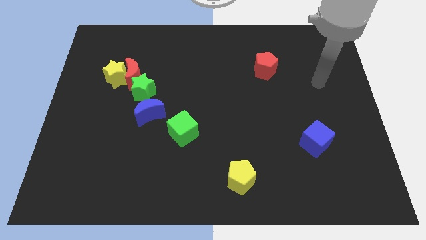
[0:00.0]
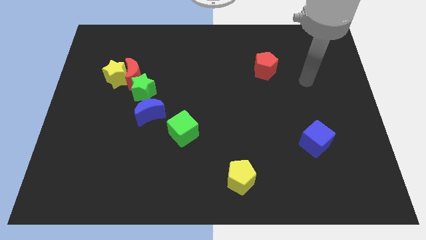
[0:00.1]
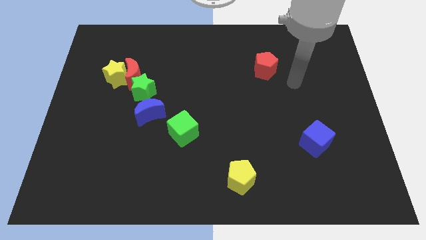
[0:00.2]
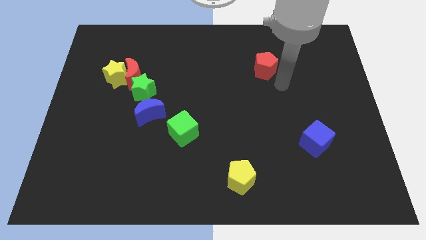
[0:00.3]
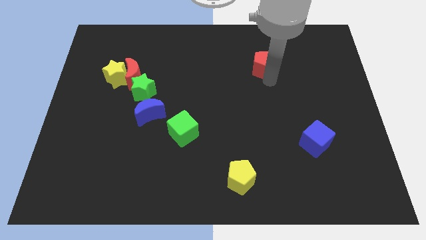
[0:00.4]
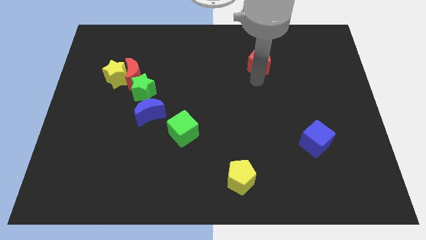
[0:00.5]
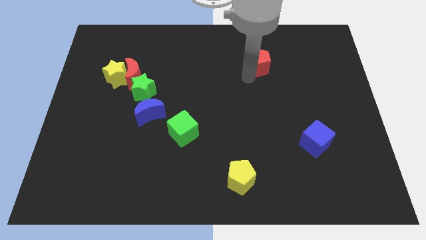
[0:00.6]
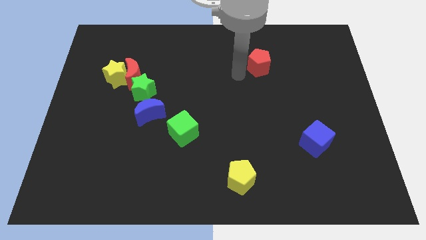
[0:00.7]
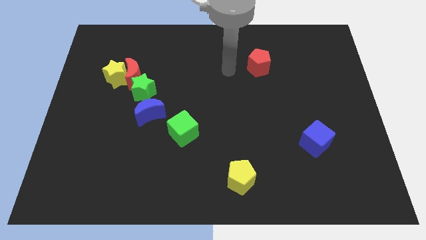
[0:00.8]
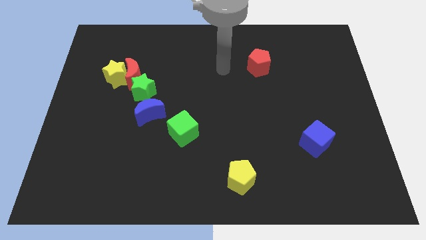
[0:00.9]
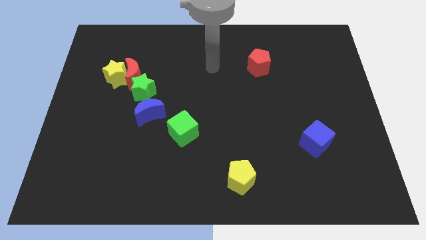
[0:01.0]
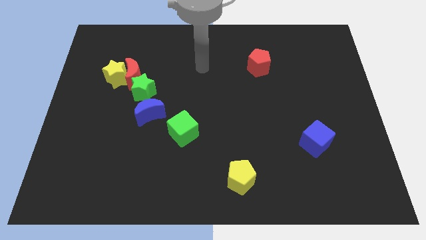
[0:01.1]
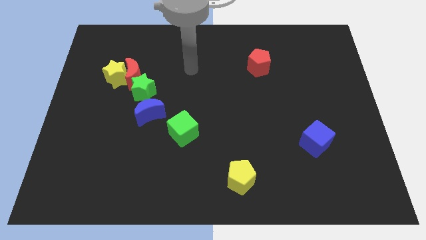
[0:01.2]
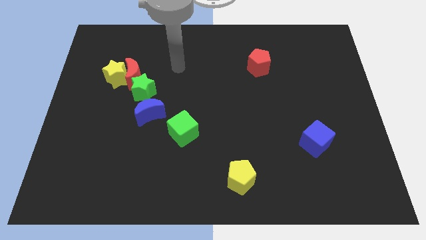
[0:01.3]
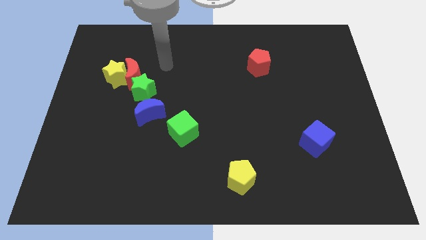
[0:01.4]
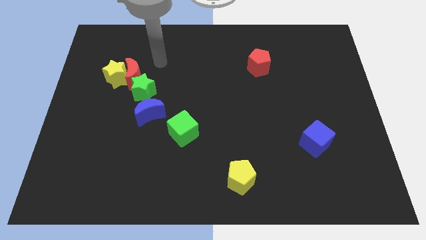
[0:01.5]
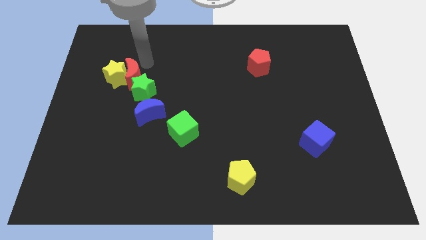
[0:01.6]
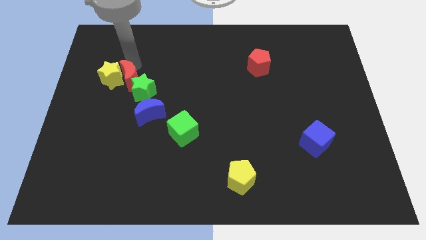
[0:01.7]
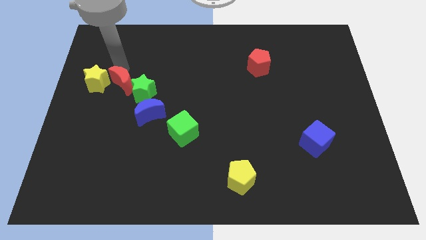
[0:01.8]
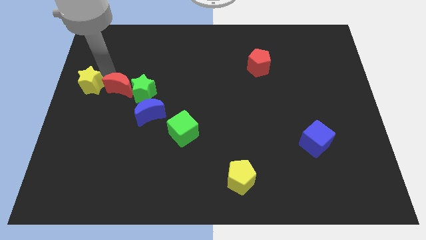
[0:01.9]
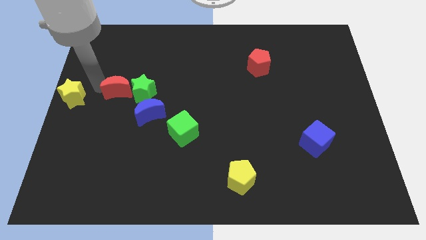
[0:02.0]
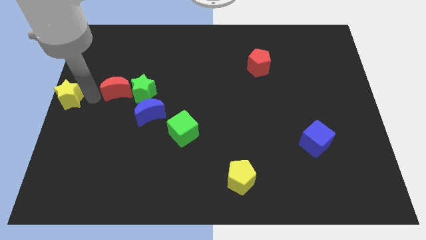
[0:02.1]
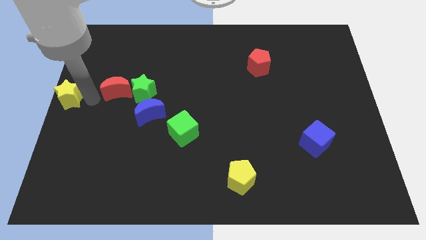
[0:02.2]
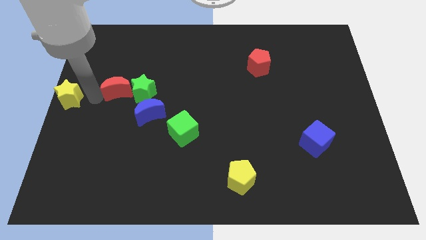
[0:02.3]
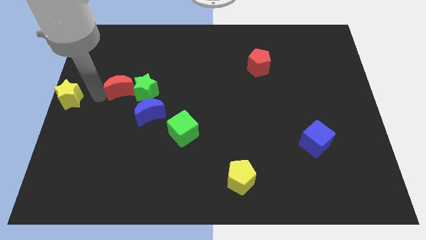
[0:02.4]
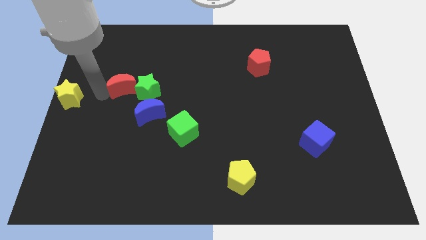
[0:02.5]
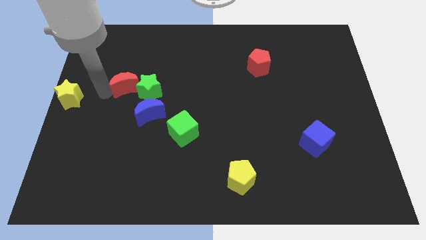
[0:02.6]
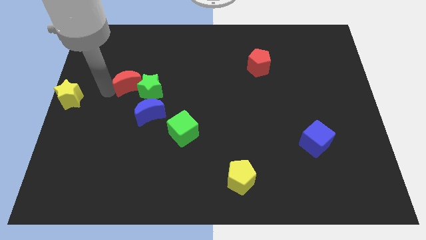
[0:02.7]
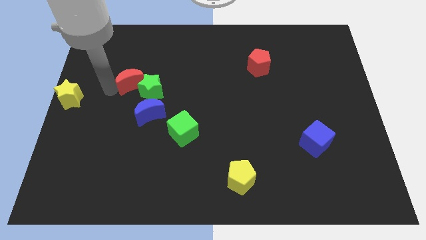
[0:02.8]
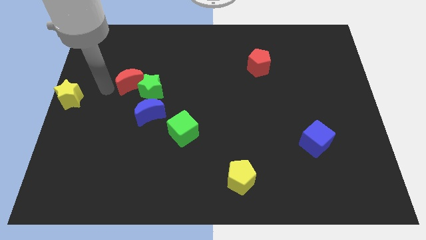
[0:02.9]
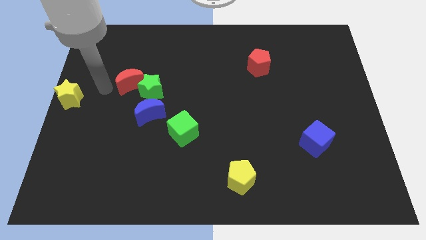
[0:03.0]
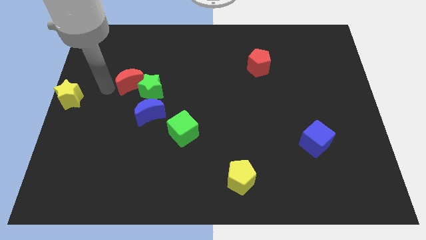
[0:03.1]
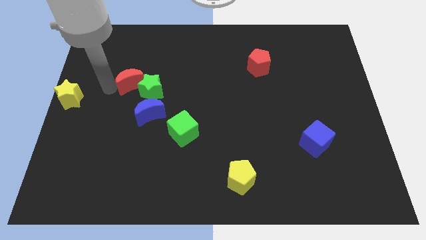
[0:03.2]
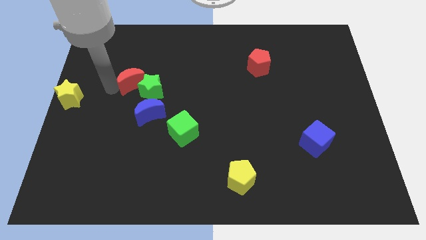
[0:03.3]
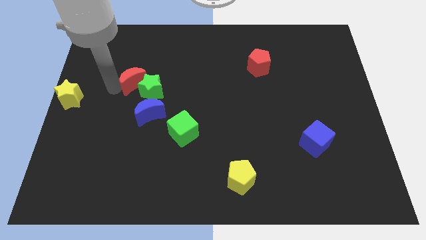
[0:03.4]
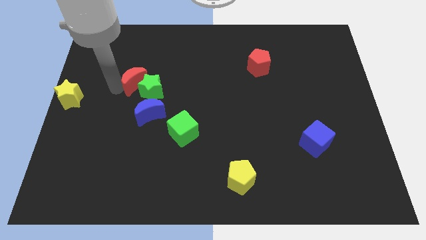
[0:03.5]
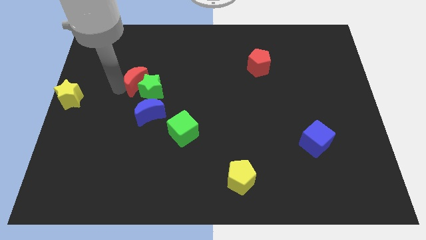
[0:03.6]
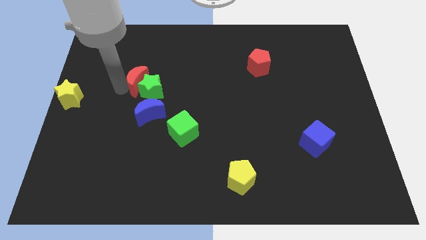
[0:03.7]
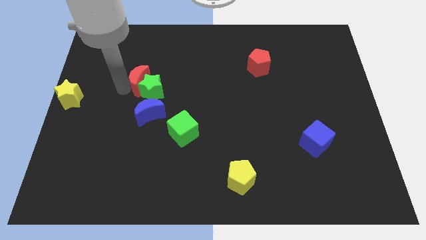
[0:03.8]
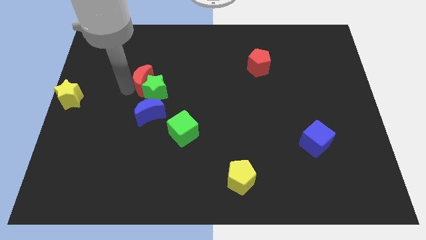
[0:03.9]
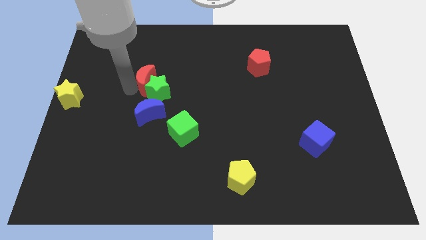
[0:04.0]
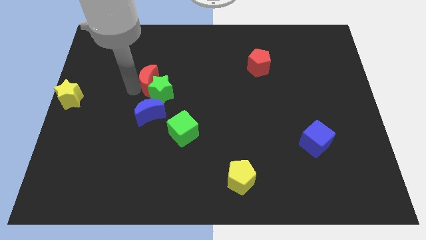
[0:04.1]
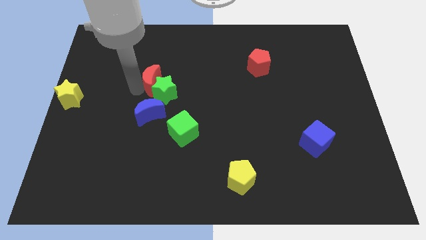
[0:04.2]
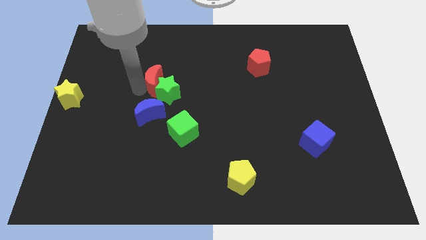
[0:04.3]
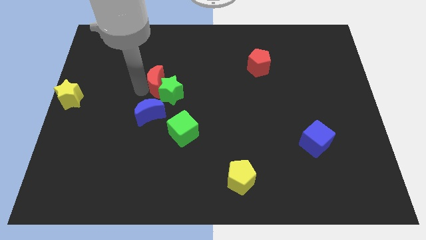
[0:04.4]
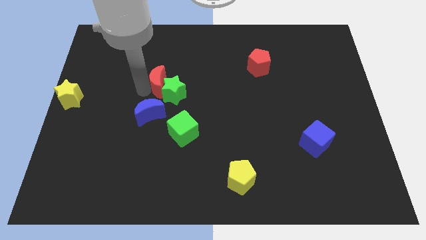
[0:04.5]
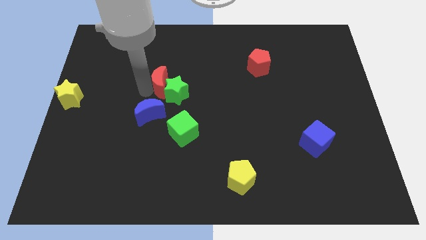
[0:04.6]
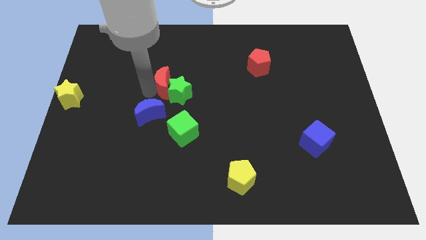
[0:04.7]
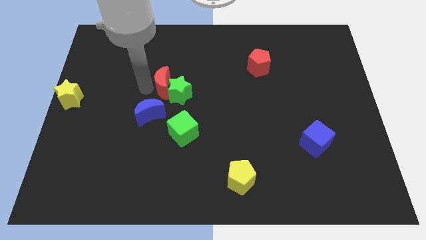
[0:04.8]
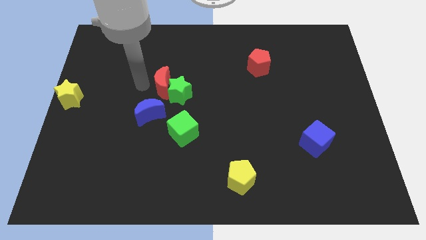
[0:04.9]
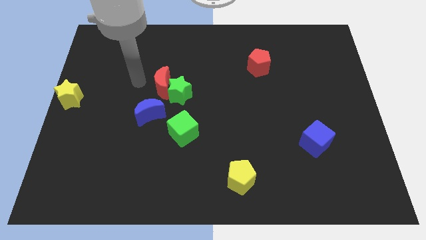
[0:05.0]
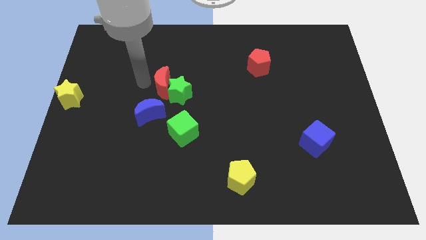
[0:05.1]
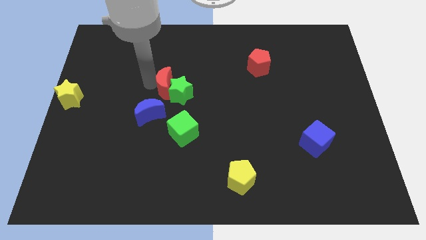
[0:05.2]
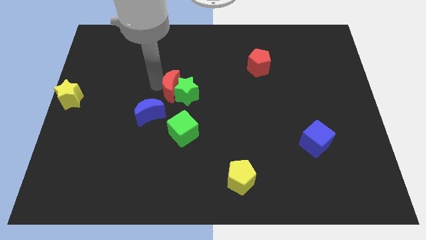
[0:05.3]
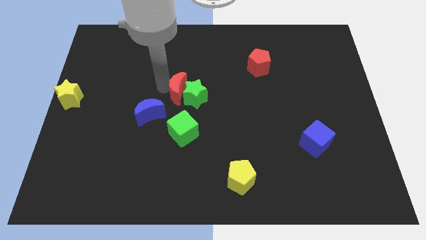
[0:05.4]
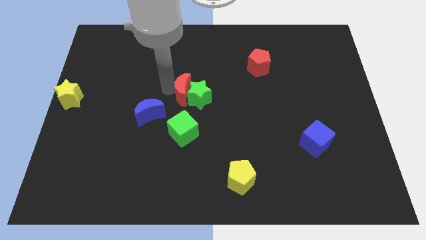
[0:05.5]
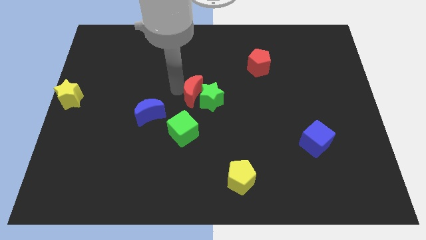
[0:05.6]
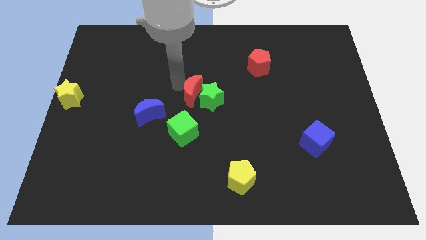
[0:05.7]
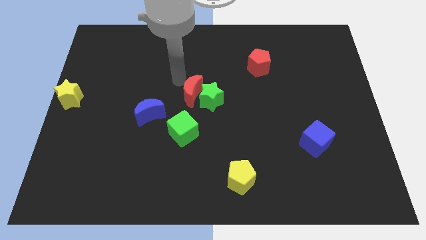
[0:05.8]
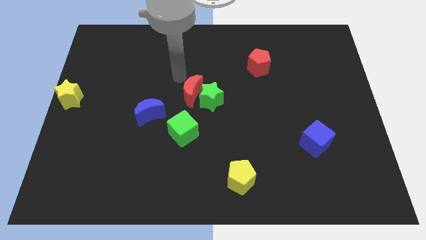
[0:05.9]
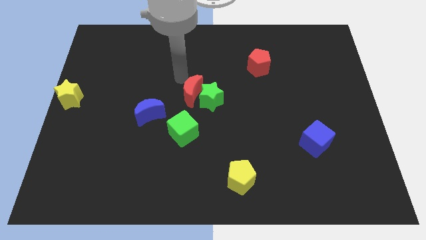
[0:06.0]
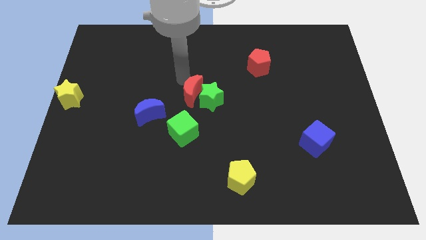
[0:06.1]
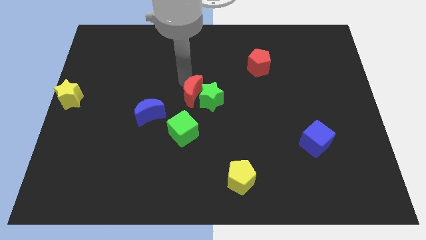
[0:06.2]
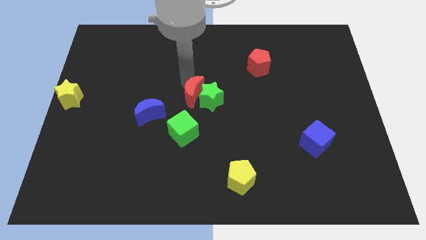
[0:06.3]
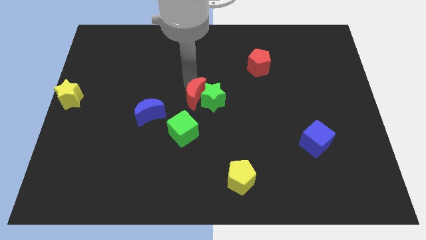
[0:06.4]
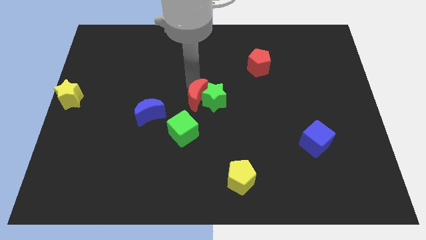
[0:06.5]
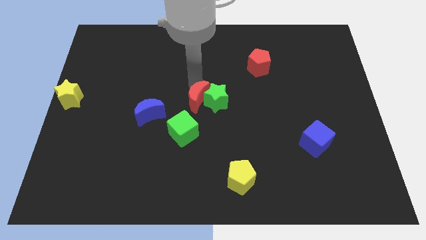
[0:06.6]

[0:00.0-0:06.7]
put the red moon to the top right of the green cube

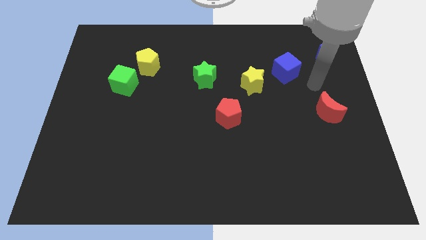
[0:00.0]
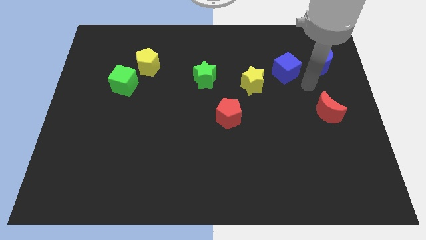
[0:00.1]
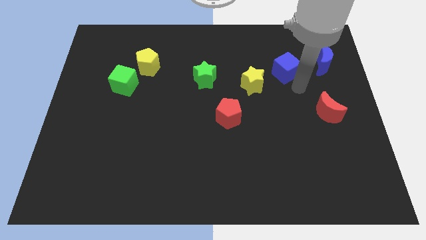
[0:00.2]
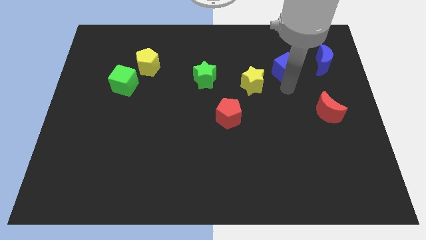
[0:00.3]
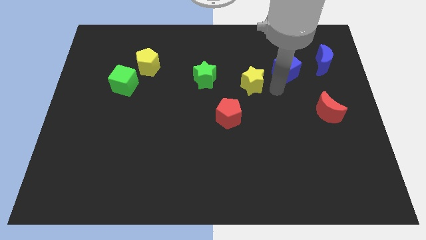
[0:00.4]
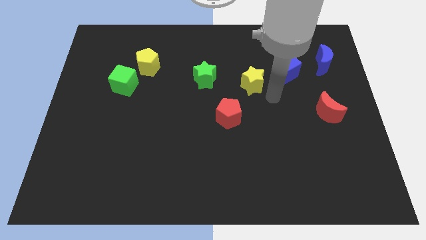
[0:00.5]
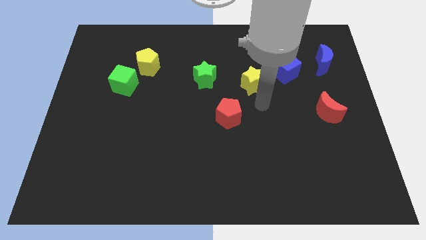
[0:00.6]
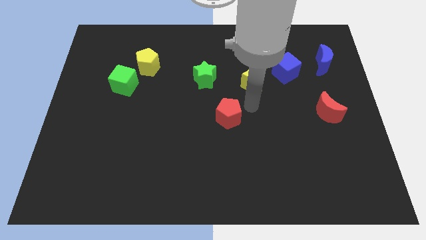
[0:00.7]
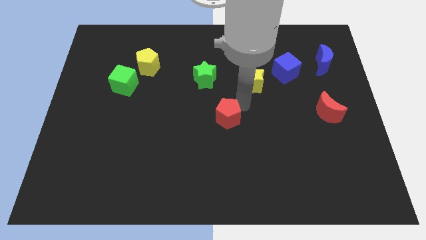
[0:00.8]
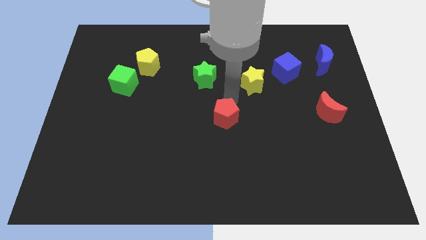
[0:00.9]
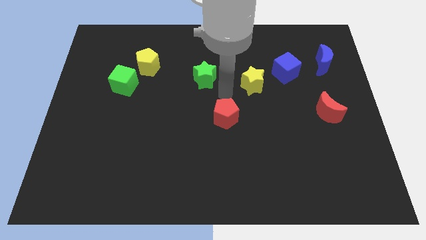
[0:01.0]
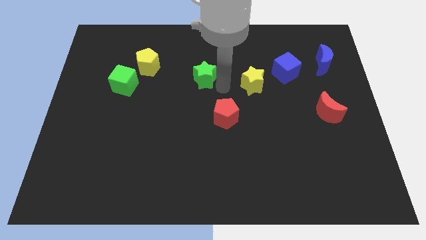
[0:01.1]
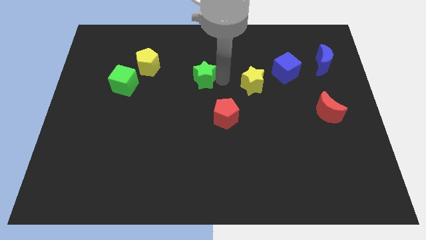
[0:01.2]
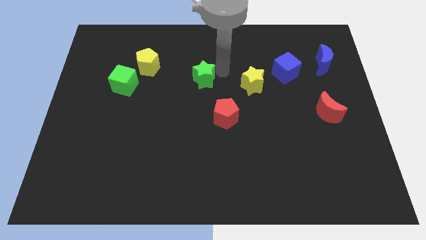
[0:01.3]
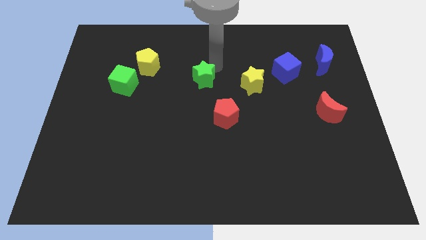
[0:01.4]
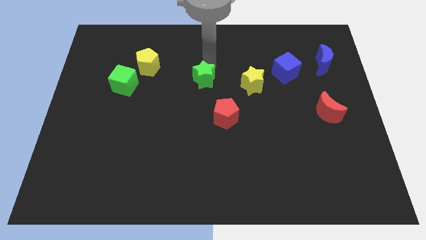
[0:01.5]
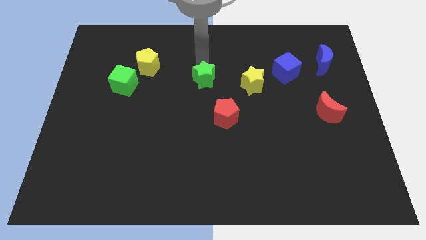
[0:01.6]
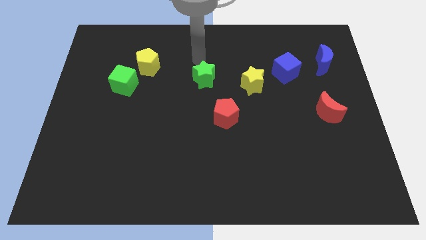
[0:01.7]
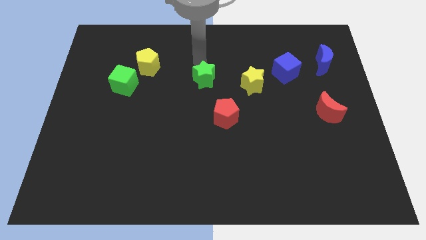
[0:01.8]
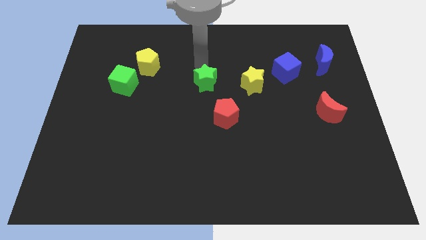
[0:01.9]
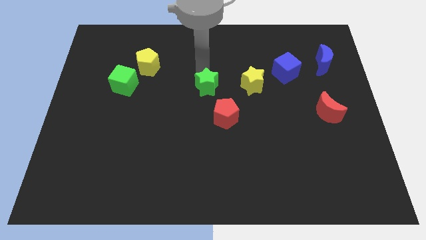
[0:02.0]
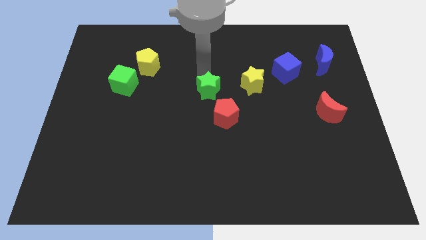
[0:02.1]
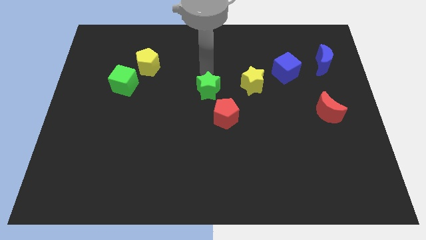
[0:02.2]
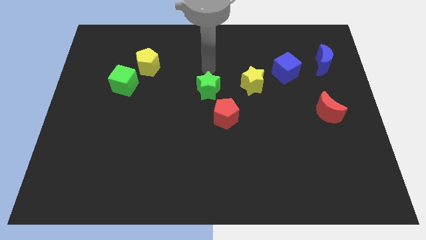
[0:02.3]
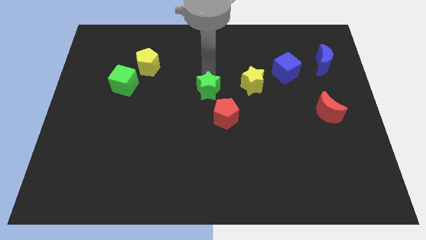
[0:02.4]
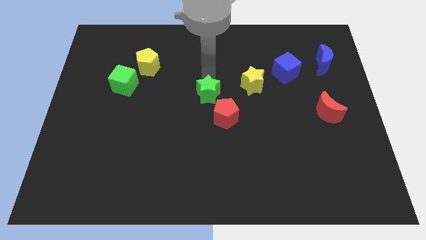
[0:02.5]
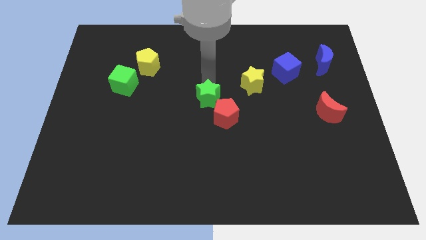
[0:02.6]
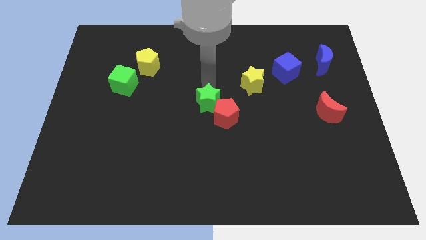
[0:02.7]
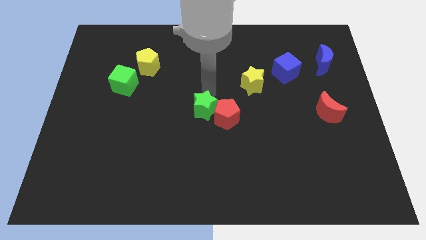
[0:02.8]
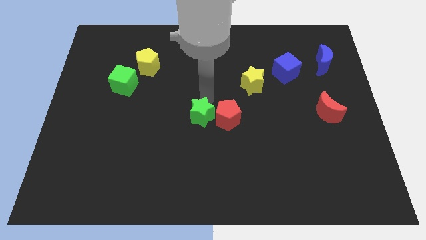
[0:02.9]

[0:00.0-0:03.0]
move the green star to the bottom left side of the red pentagon
